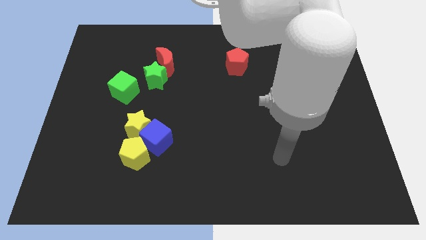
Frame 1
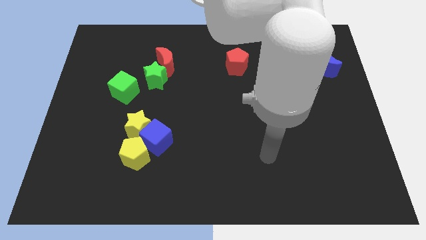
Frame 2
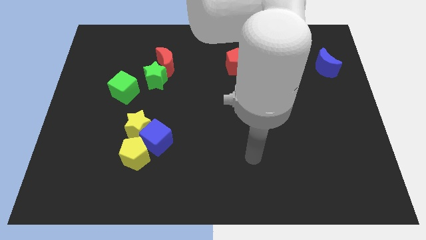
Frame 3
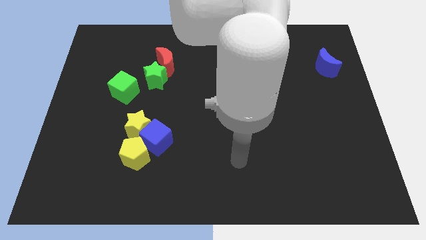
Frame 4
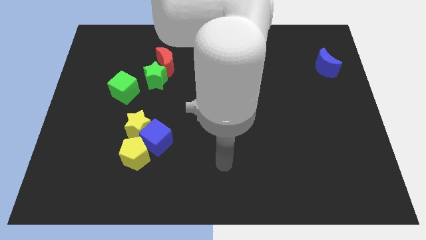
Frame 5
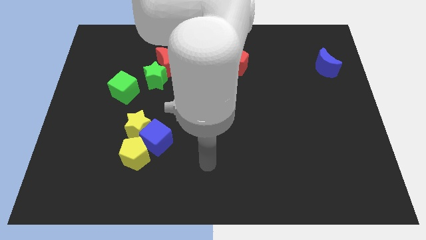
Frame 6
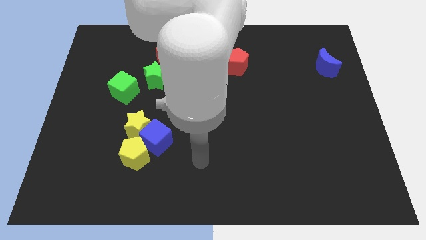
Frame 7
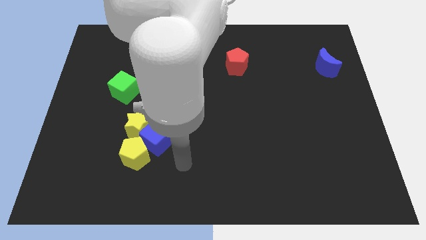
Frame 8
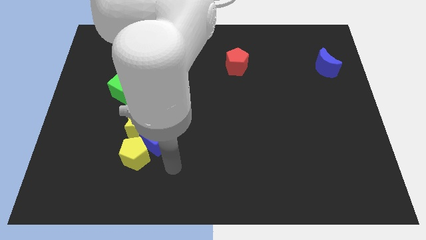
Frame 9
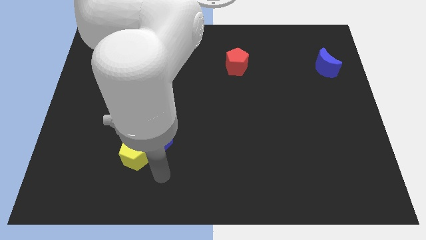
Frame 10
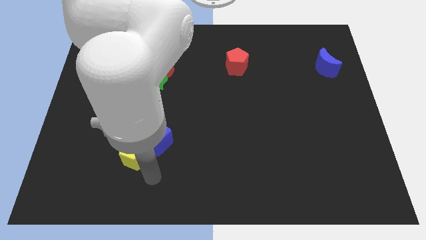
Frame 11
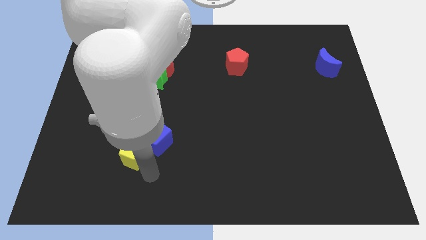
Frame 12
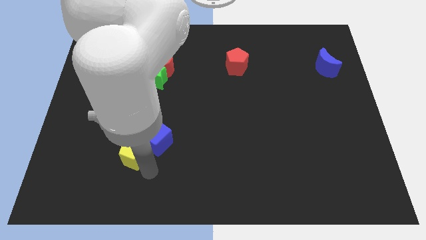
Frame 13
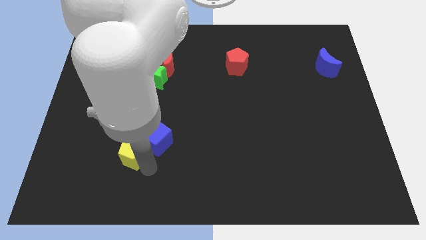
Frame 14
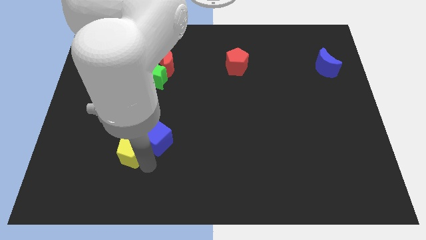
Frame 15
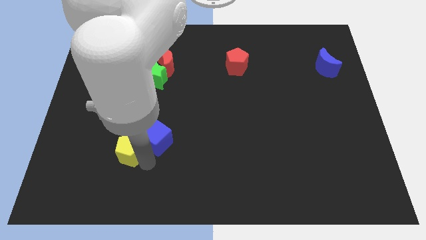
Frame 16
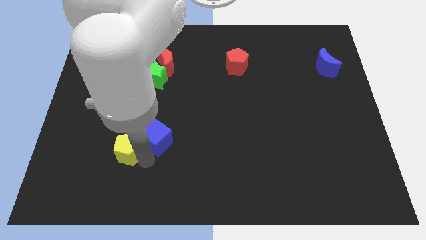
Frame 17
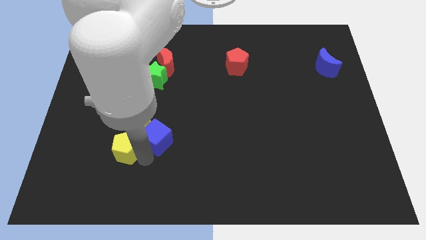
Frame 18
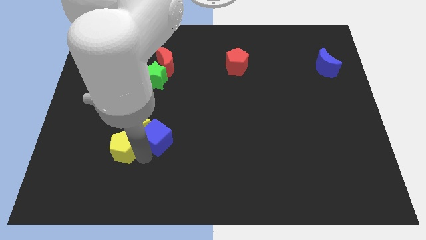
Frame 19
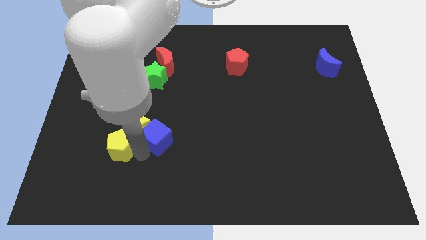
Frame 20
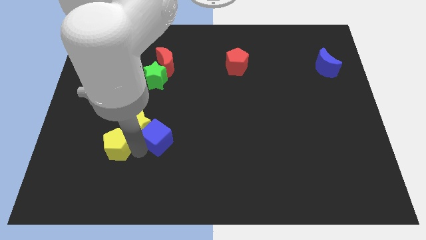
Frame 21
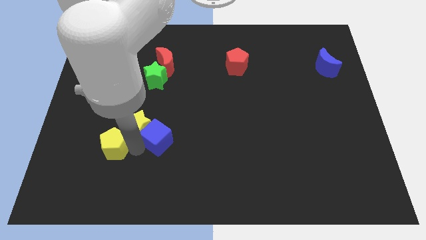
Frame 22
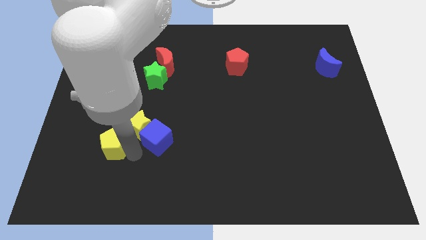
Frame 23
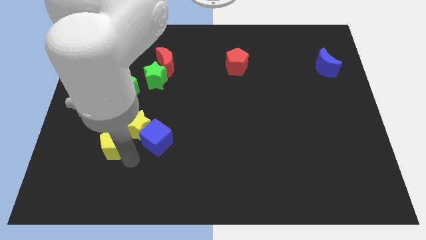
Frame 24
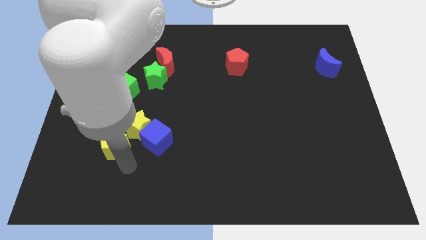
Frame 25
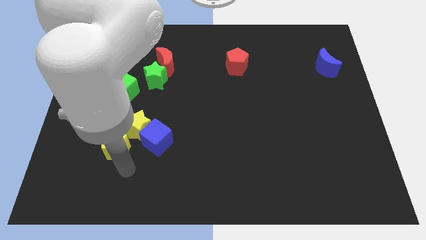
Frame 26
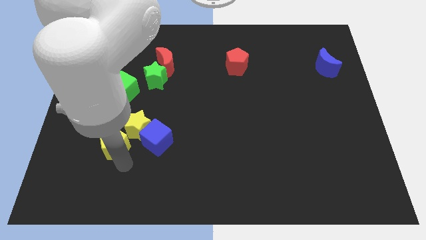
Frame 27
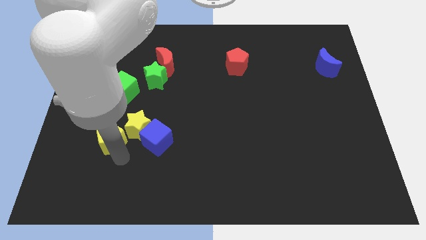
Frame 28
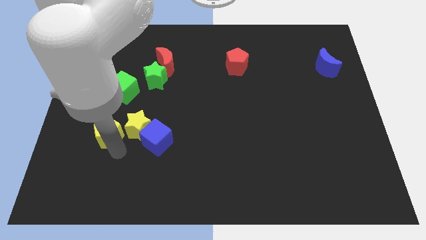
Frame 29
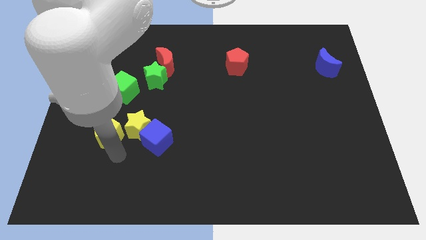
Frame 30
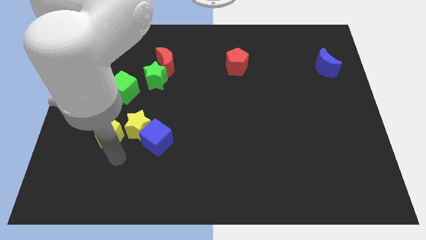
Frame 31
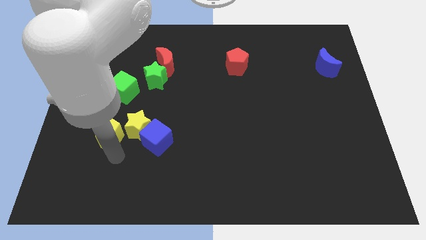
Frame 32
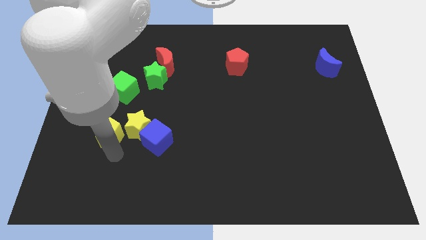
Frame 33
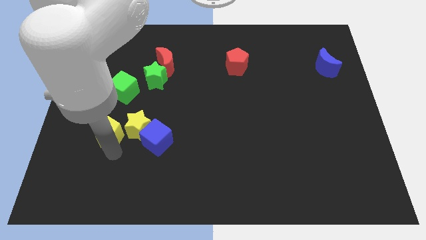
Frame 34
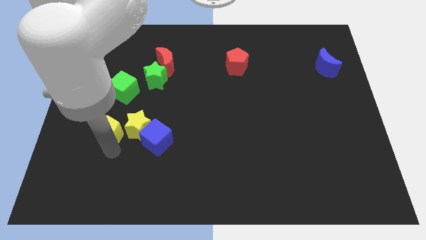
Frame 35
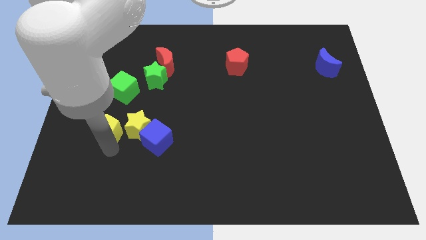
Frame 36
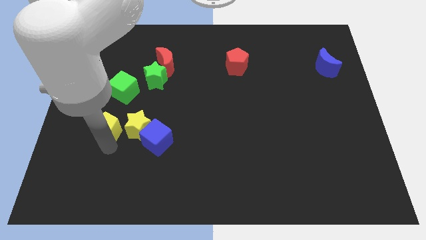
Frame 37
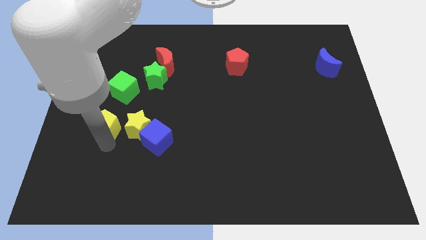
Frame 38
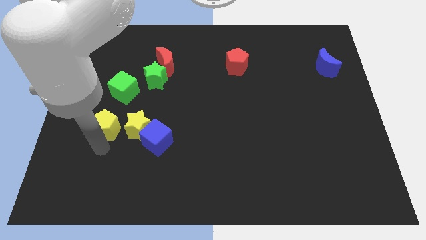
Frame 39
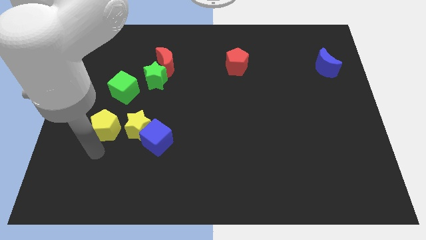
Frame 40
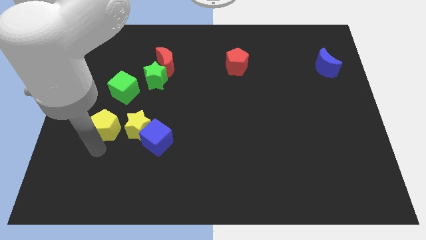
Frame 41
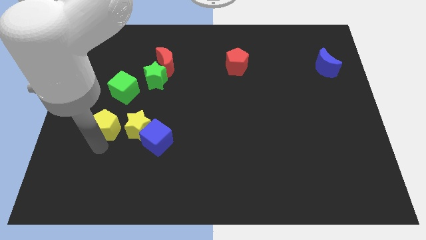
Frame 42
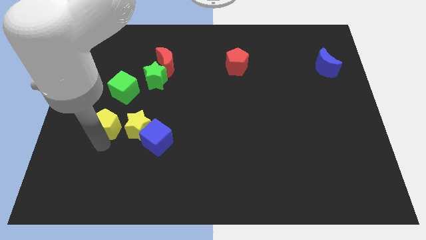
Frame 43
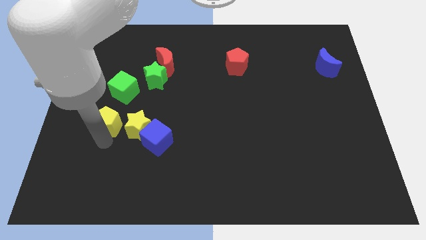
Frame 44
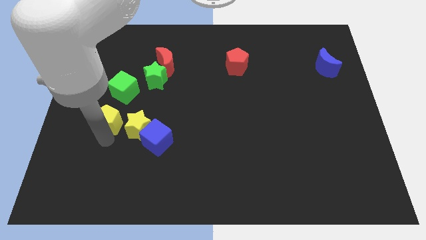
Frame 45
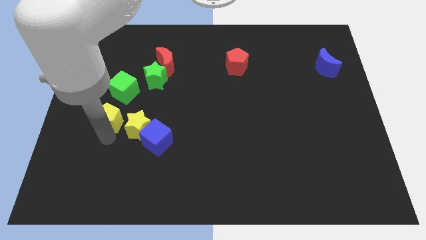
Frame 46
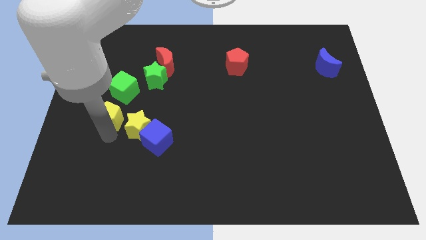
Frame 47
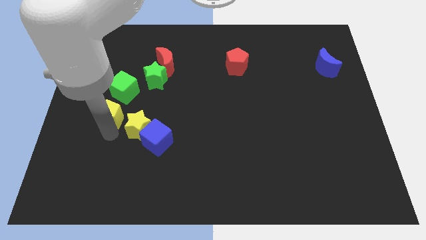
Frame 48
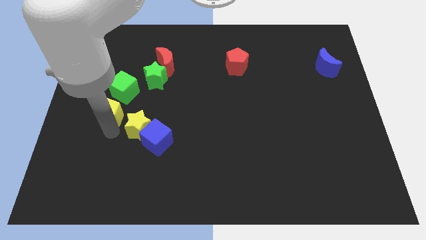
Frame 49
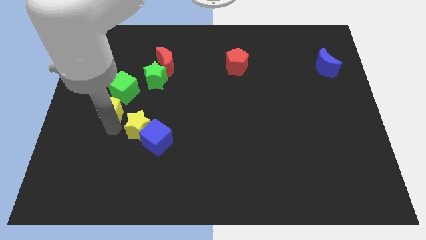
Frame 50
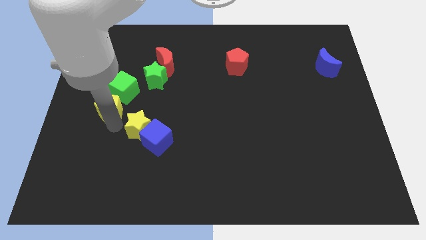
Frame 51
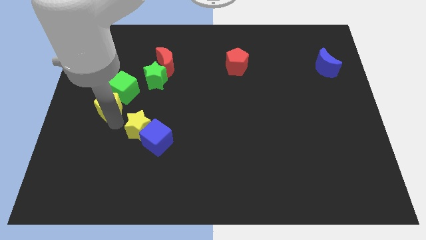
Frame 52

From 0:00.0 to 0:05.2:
put the yellow pentagon next to the green cube

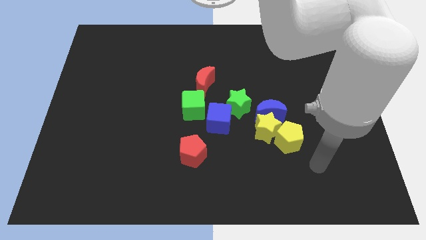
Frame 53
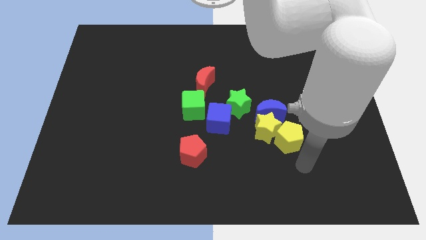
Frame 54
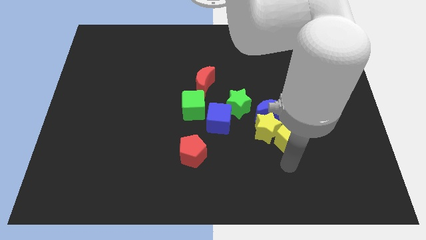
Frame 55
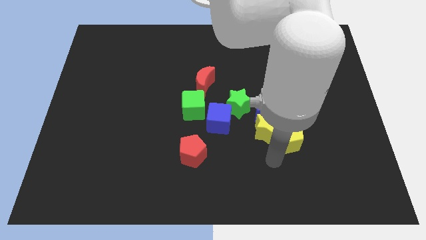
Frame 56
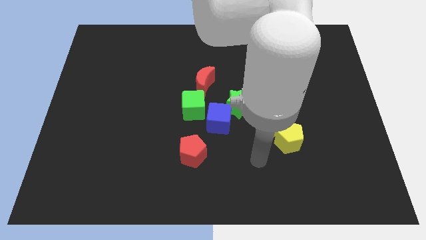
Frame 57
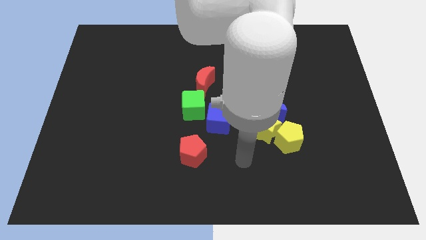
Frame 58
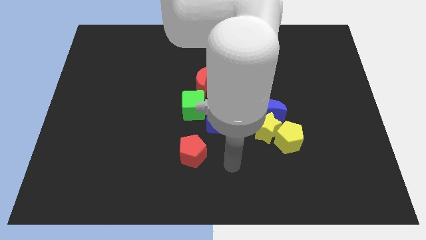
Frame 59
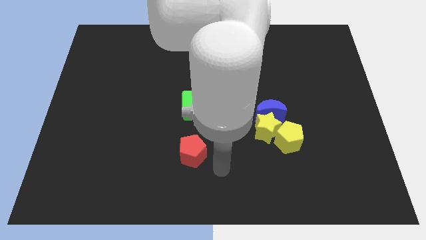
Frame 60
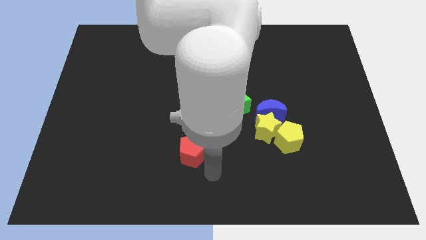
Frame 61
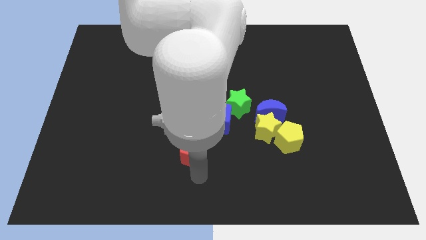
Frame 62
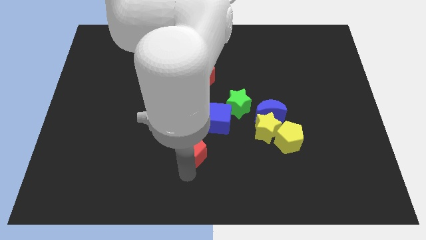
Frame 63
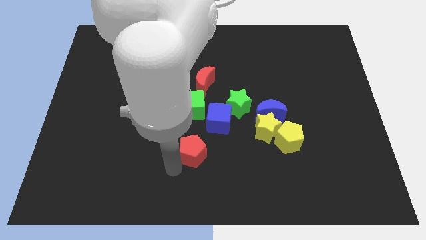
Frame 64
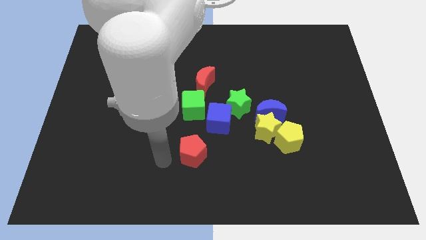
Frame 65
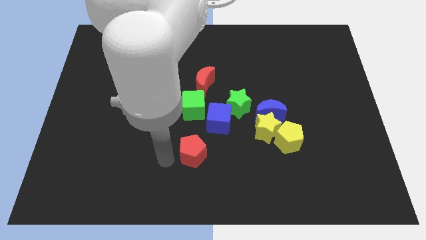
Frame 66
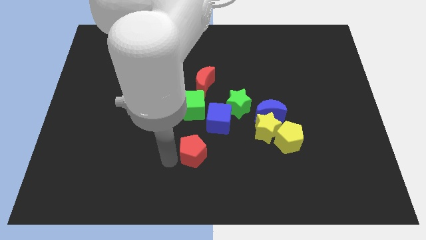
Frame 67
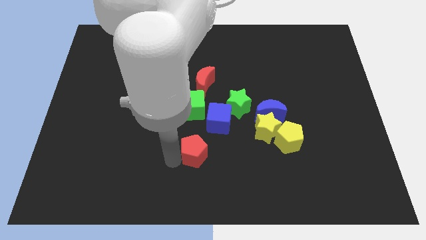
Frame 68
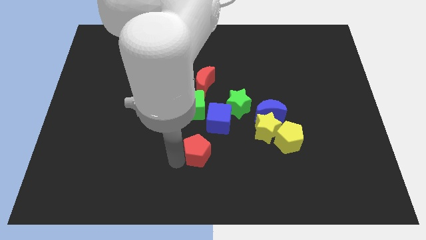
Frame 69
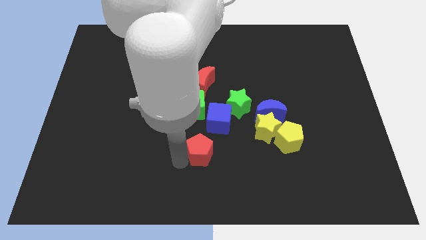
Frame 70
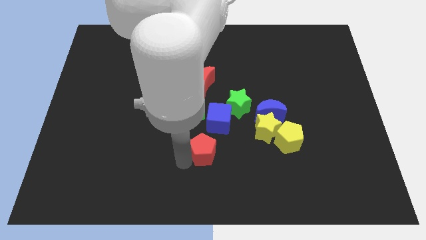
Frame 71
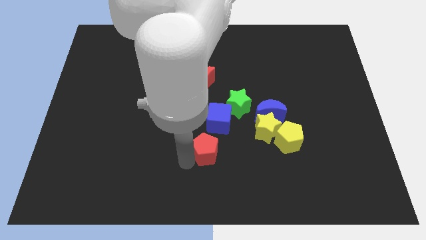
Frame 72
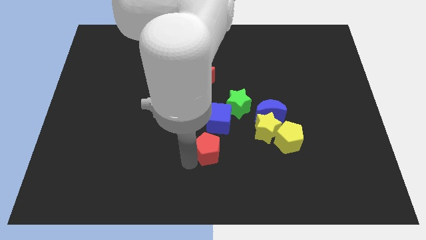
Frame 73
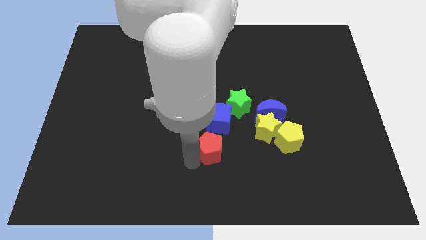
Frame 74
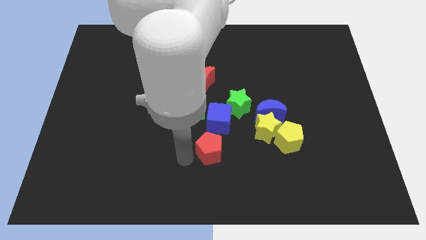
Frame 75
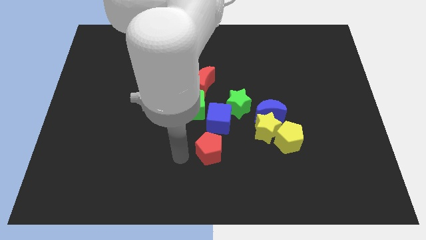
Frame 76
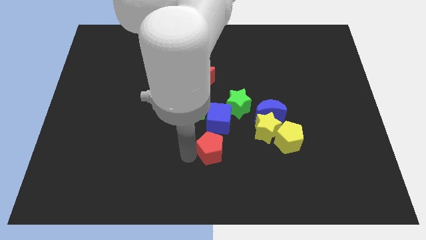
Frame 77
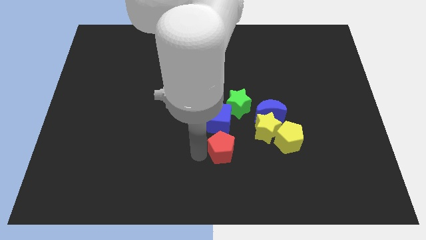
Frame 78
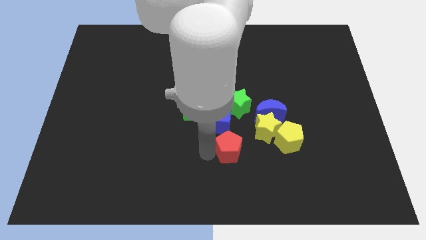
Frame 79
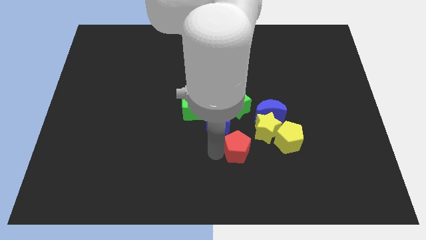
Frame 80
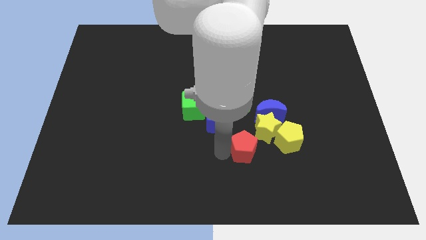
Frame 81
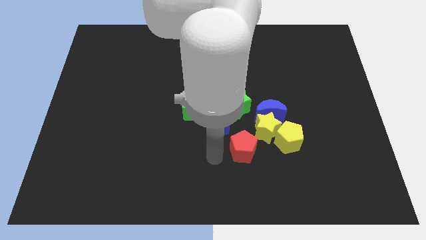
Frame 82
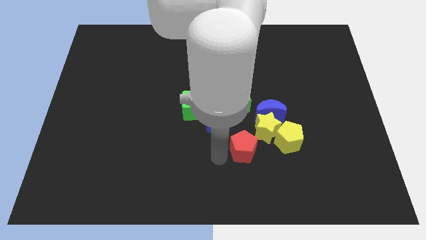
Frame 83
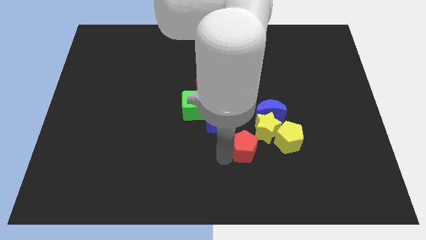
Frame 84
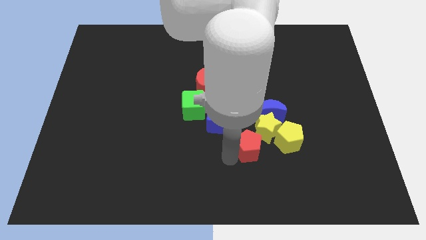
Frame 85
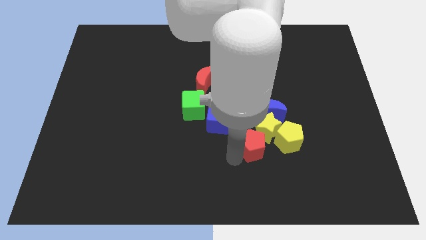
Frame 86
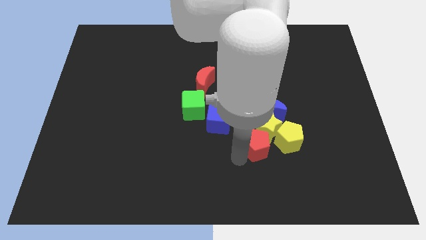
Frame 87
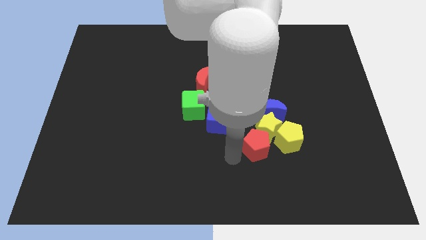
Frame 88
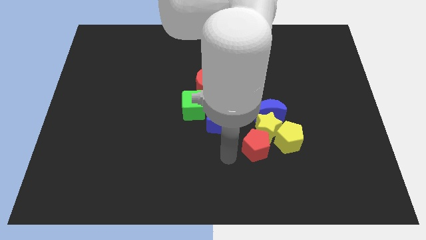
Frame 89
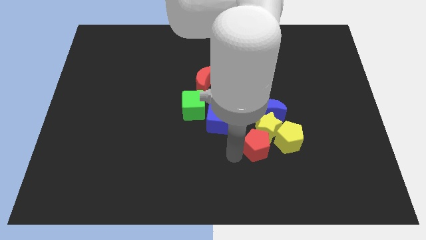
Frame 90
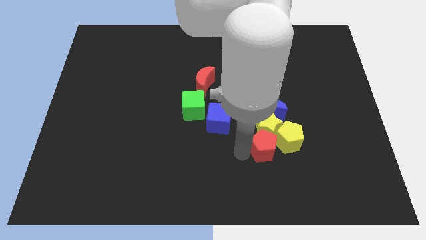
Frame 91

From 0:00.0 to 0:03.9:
push the red pentagon towards the yellow pentagon
